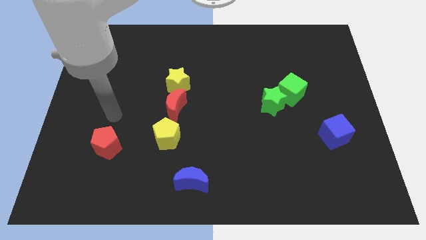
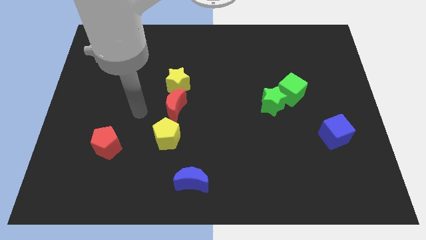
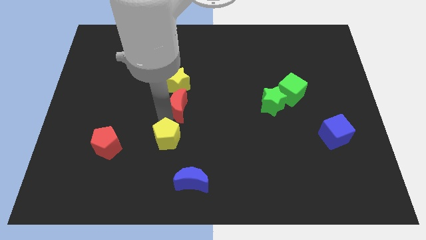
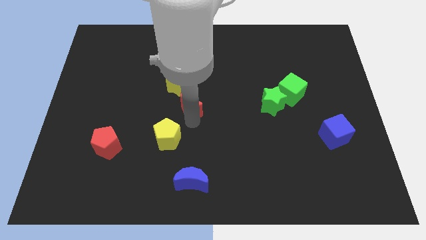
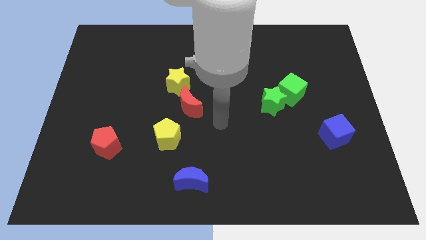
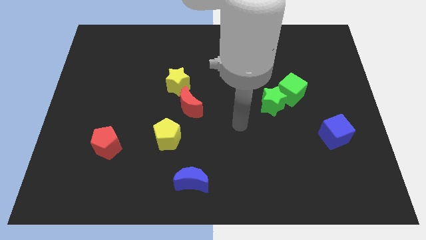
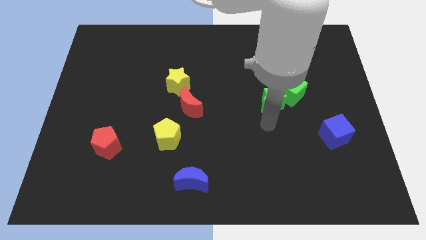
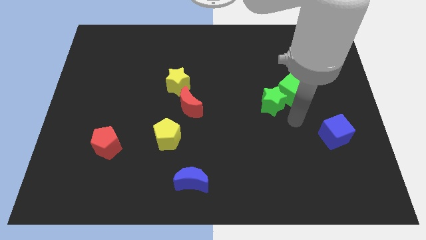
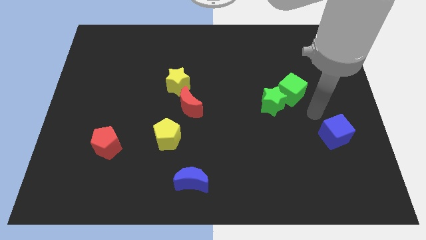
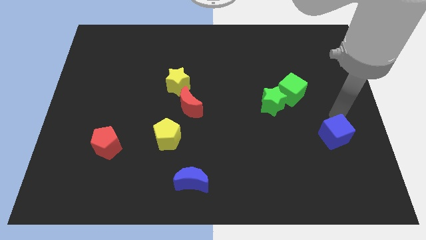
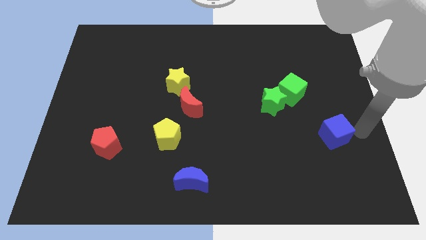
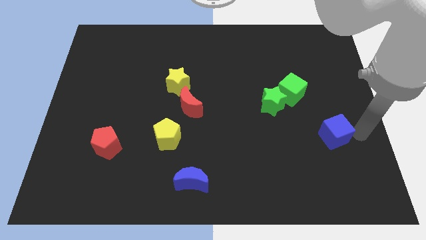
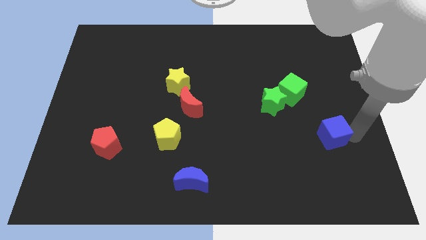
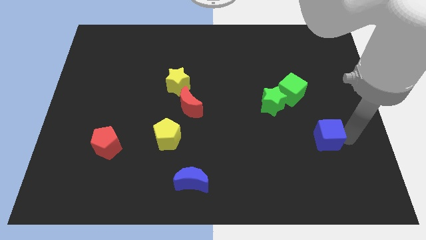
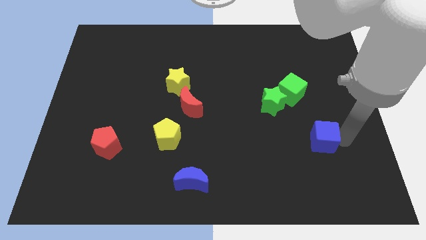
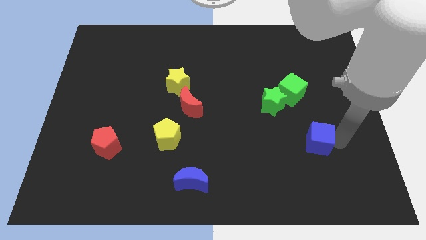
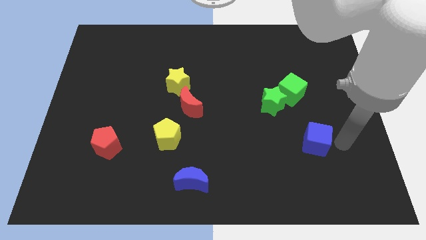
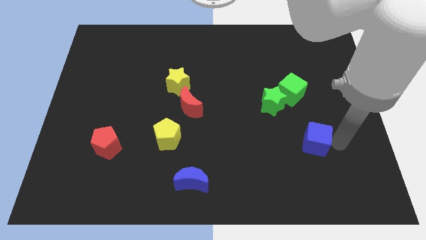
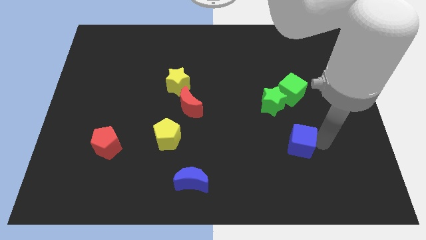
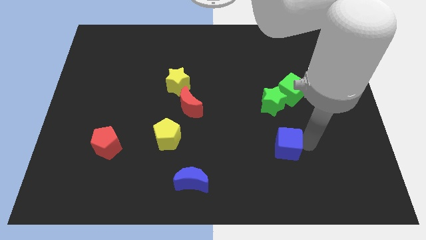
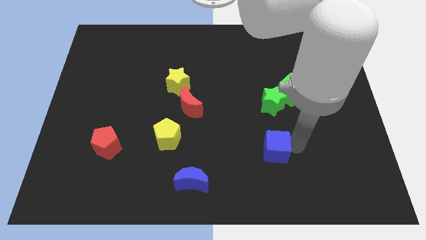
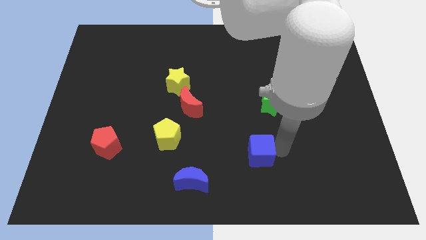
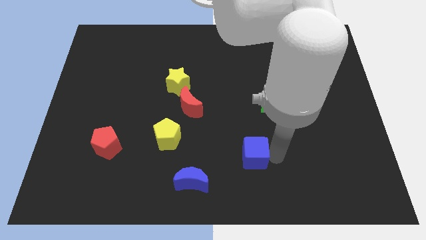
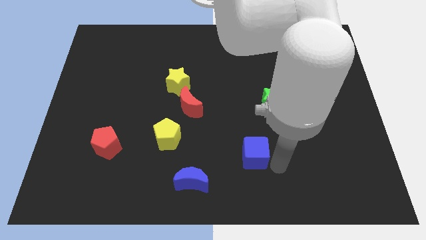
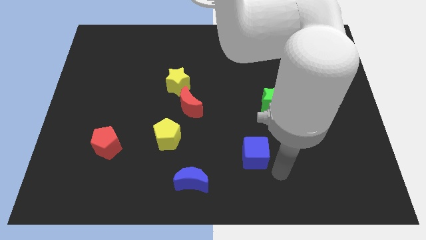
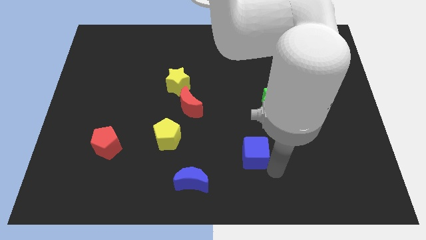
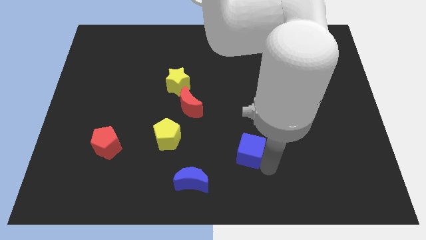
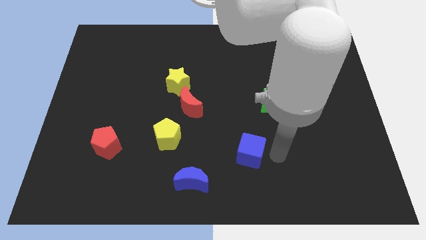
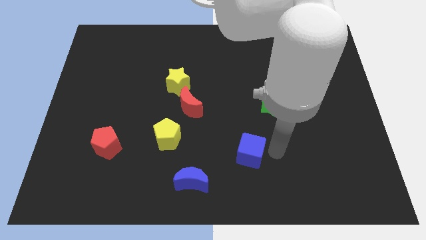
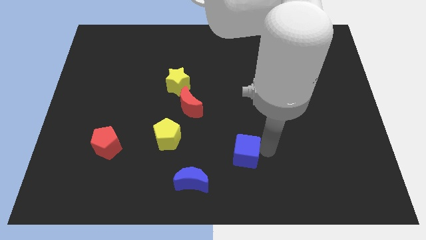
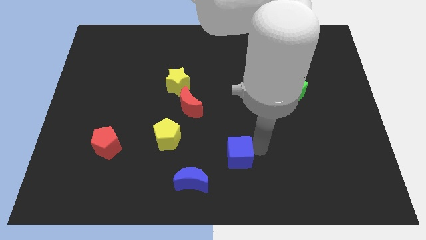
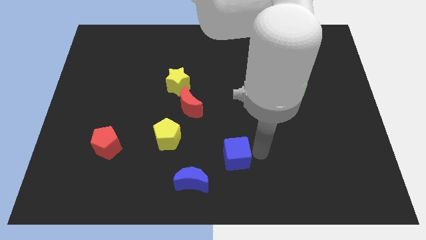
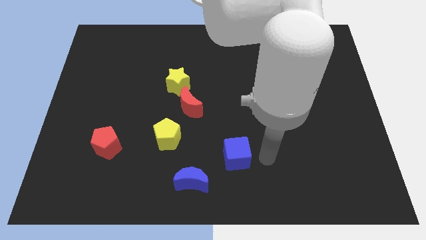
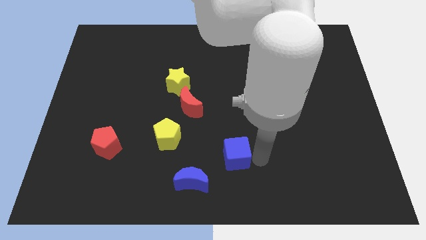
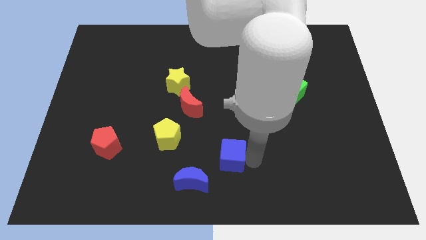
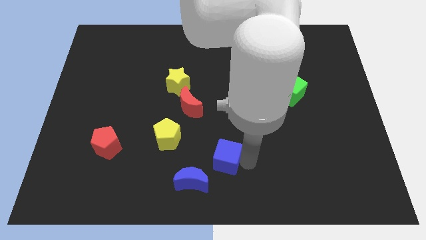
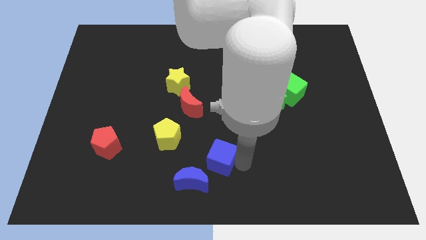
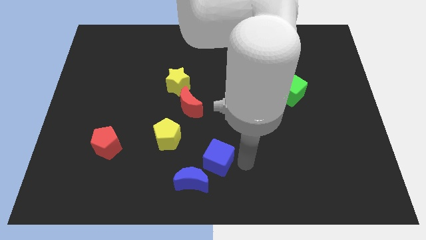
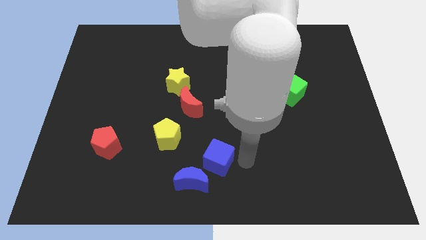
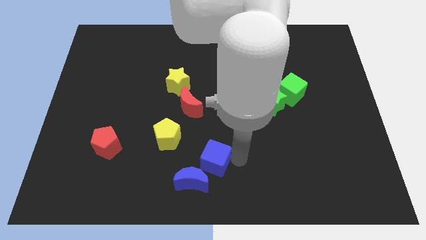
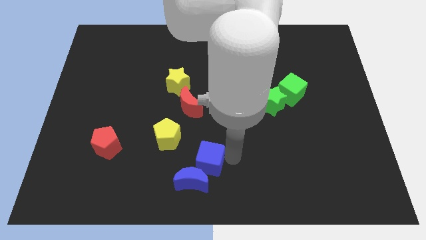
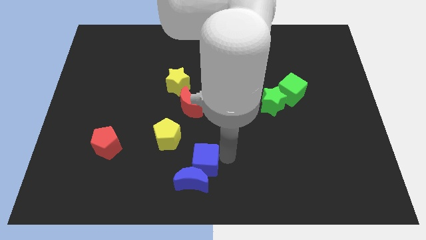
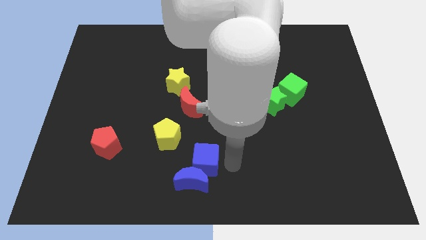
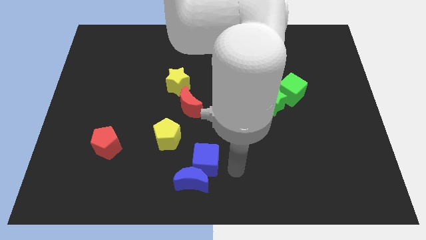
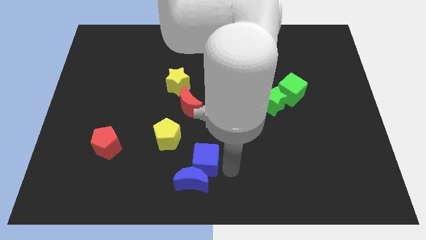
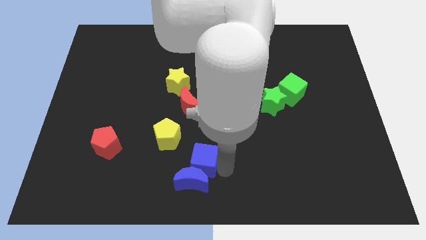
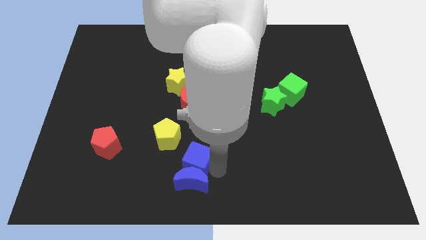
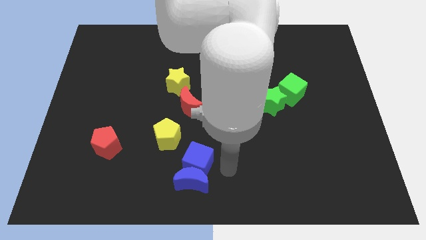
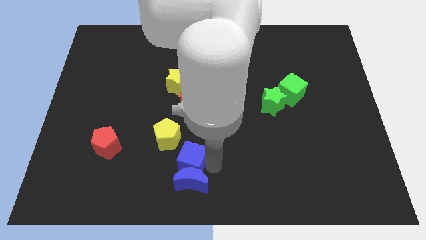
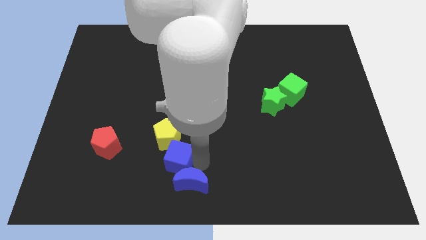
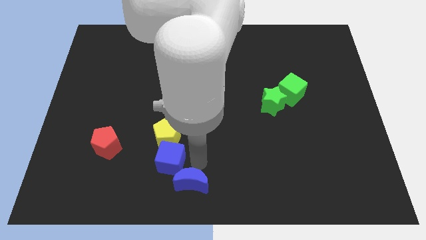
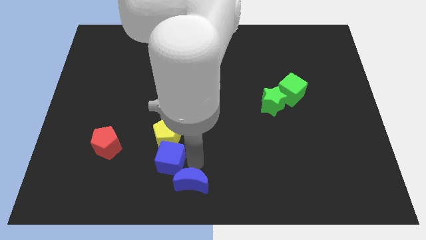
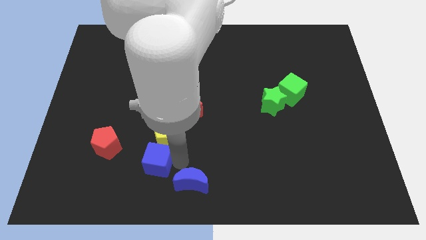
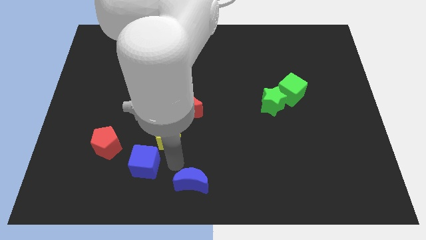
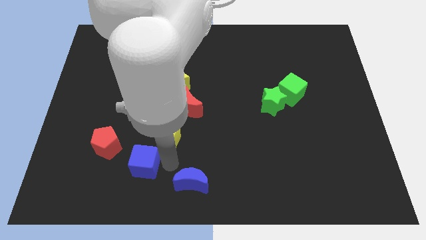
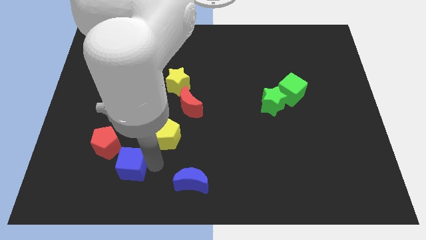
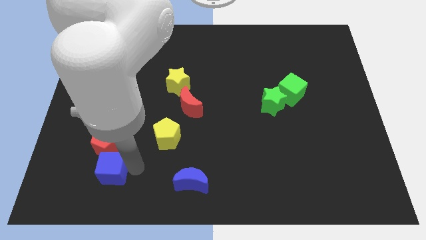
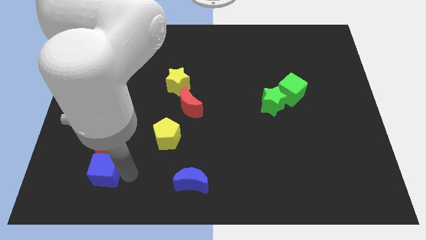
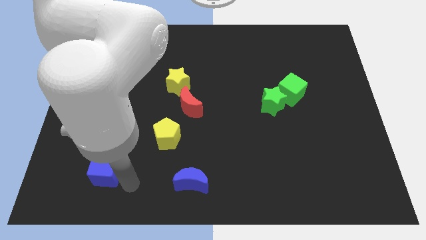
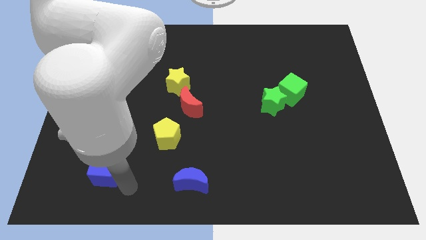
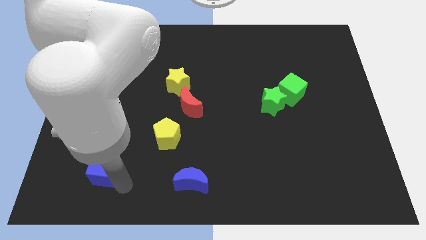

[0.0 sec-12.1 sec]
put the blue cube to the bottom left side of the red pentagon

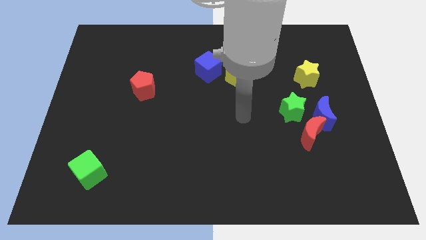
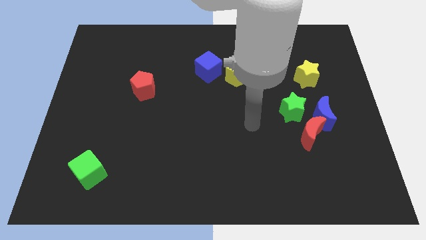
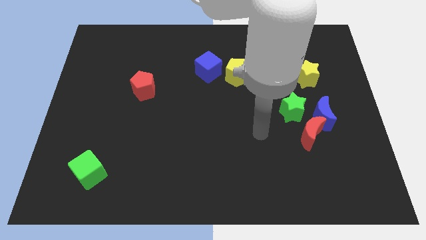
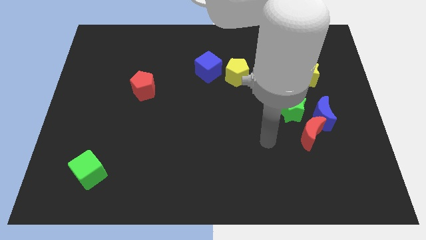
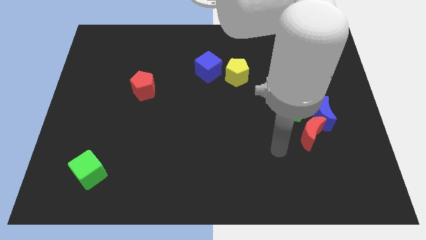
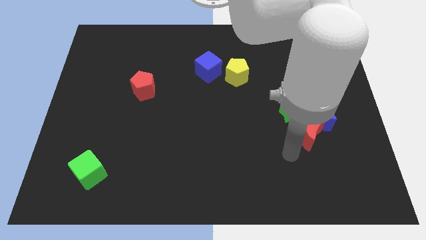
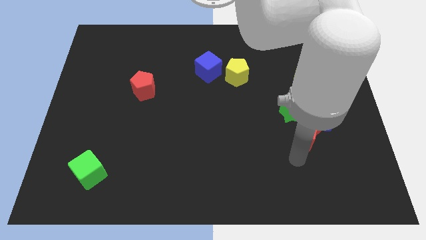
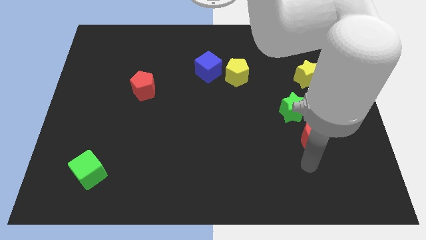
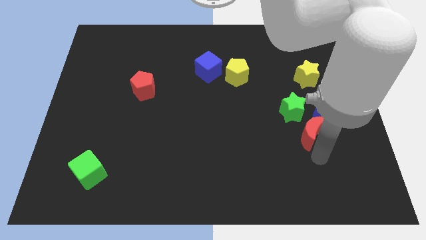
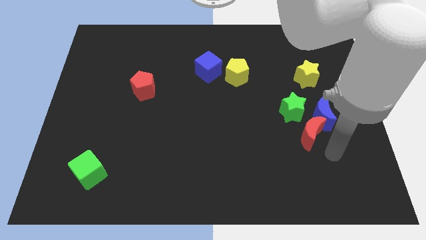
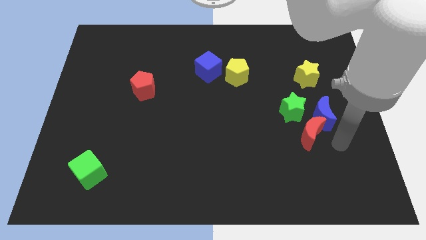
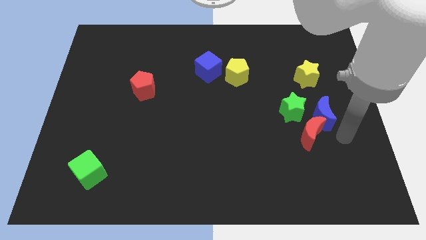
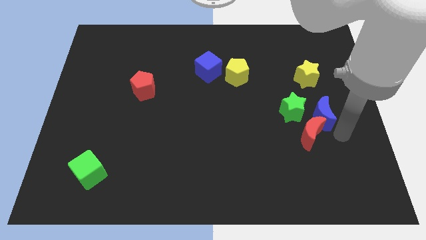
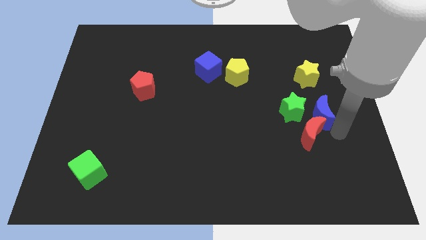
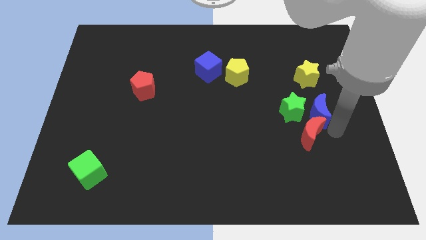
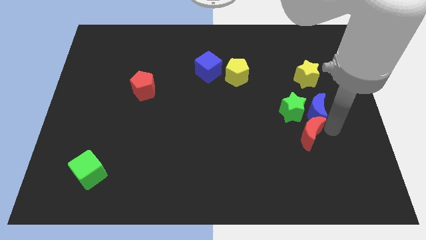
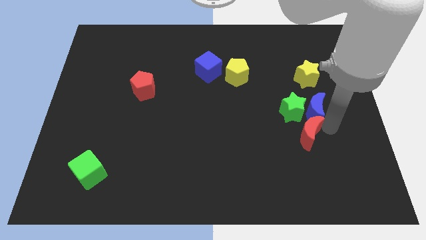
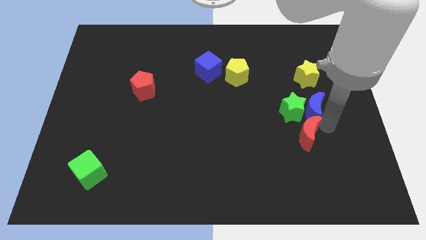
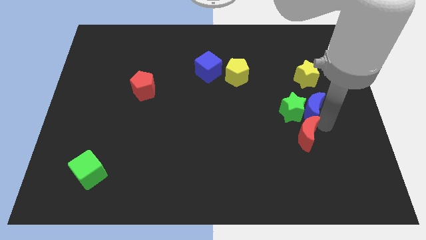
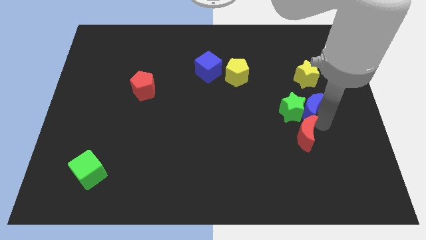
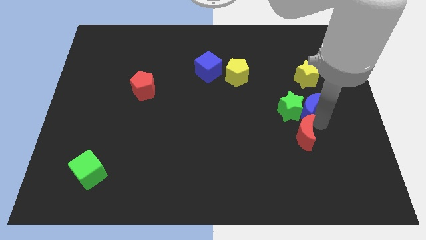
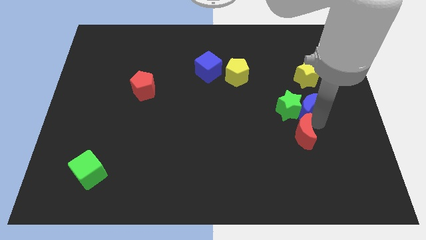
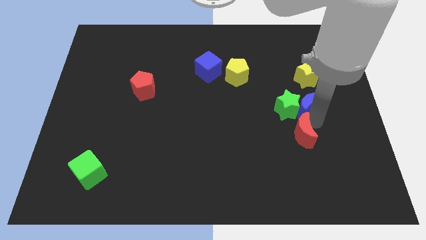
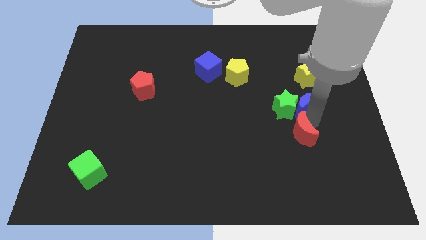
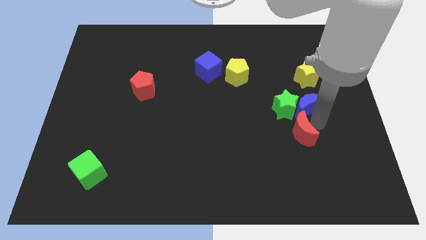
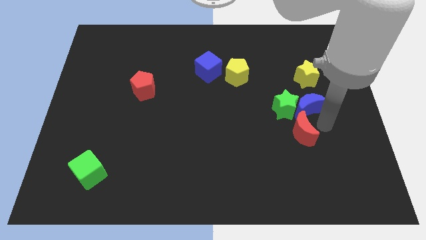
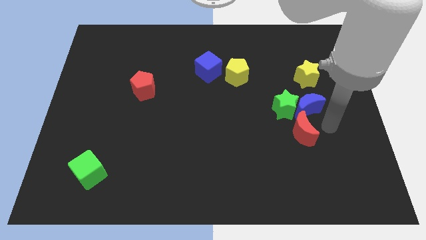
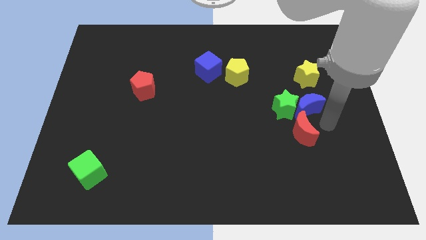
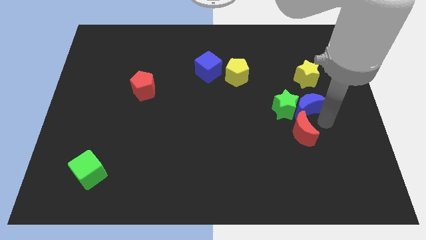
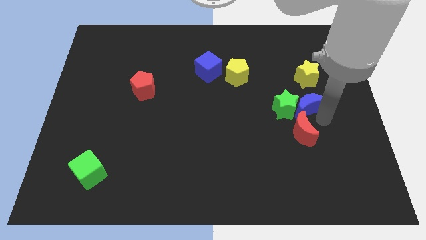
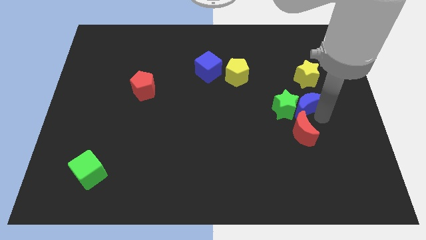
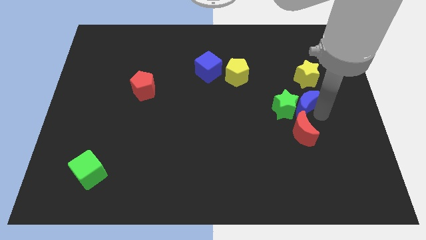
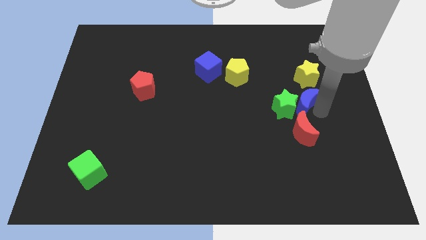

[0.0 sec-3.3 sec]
put the blue moon to the bottom left of the yellow star
